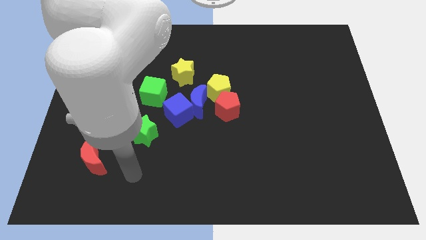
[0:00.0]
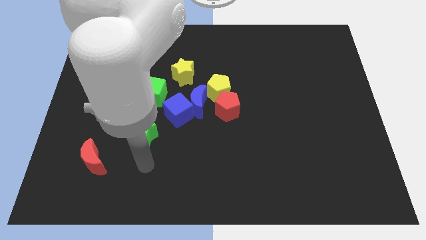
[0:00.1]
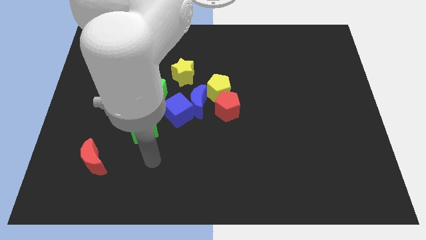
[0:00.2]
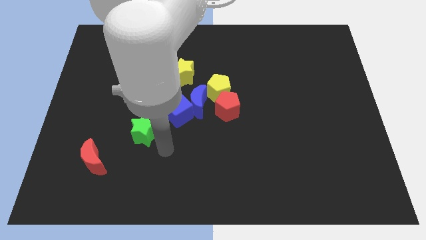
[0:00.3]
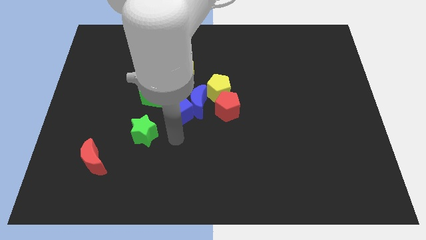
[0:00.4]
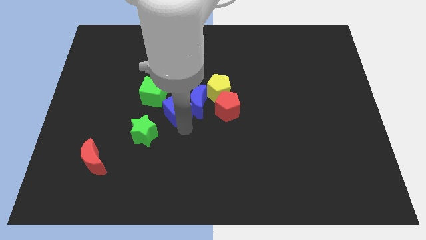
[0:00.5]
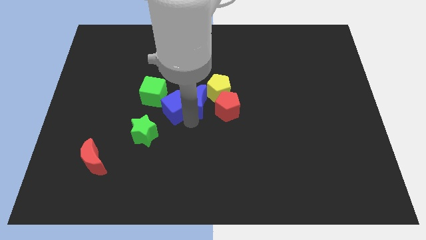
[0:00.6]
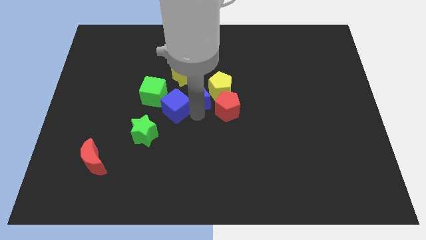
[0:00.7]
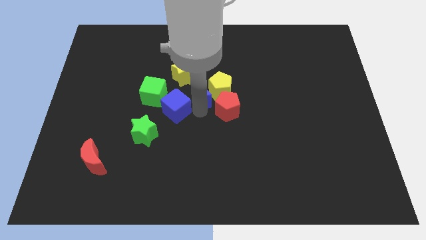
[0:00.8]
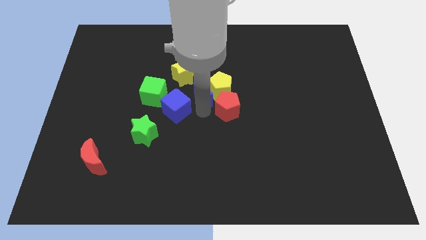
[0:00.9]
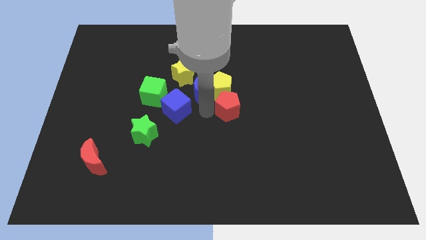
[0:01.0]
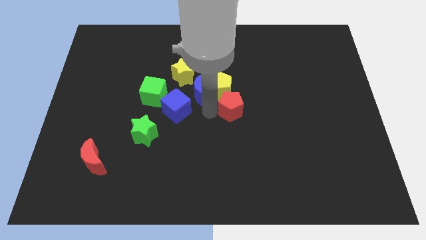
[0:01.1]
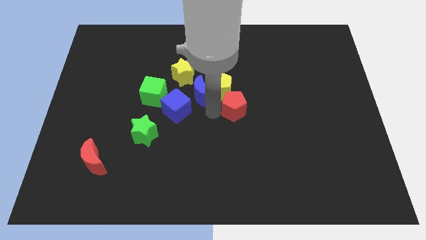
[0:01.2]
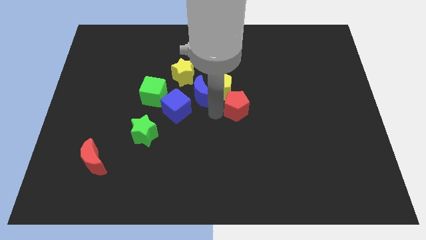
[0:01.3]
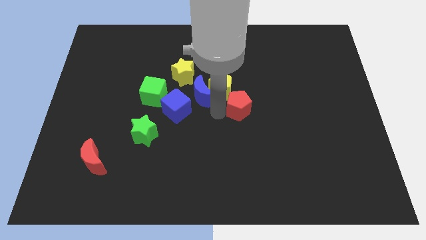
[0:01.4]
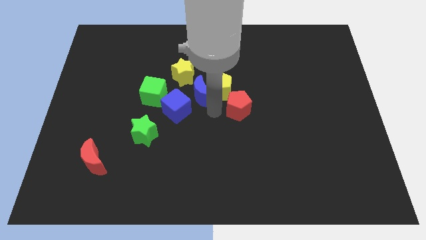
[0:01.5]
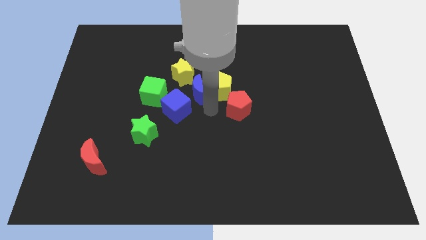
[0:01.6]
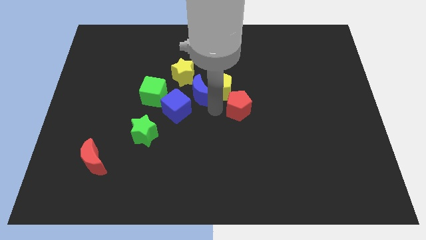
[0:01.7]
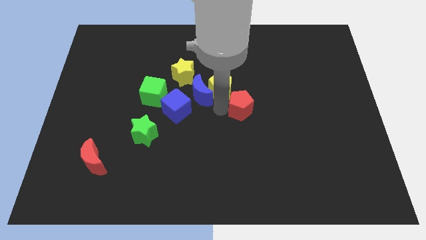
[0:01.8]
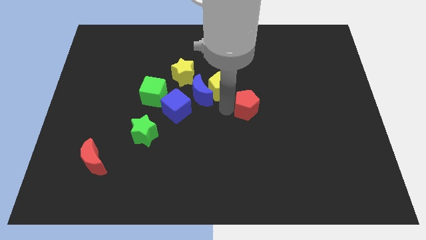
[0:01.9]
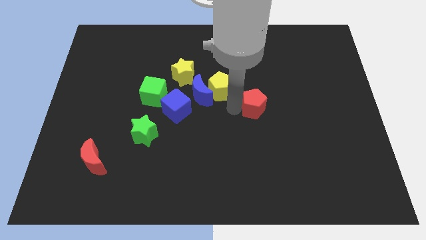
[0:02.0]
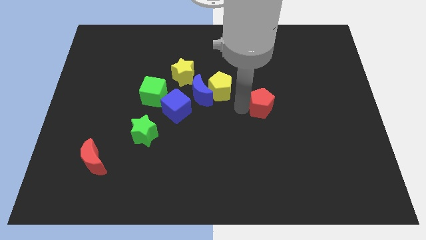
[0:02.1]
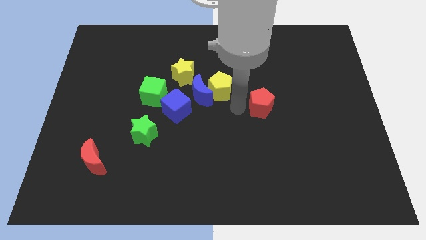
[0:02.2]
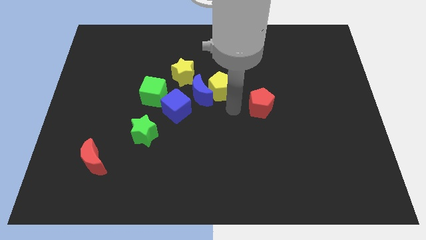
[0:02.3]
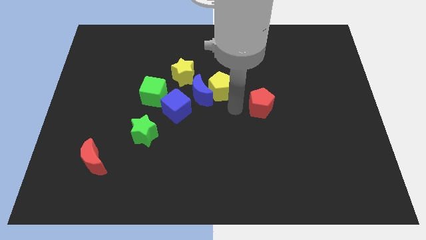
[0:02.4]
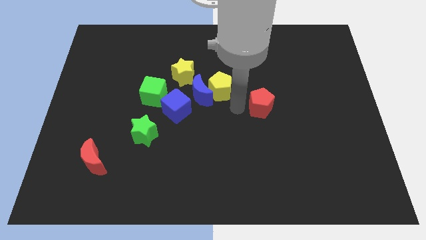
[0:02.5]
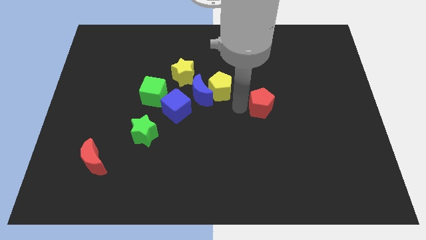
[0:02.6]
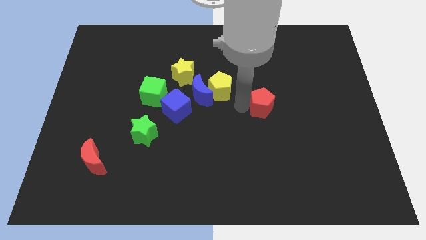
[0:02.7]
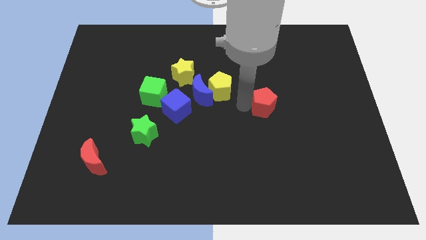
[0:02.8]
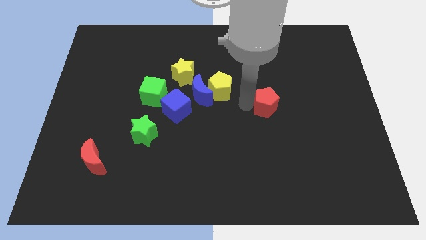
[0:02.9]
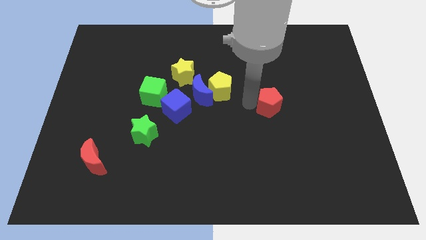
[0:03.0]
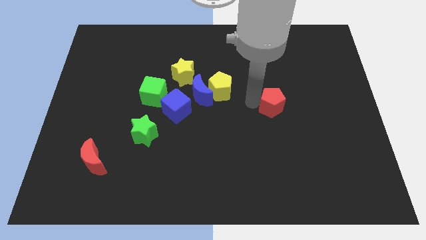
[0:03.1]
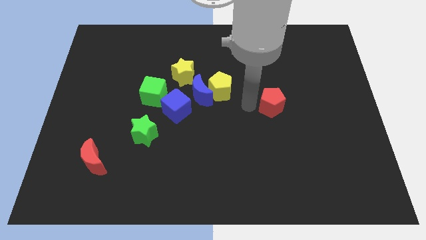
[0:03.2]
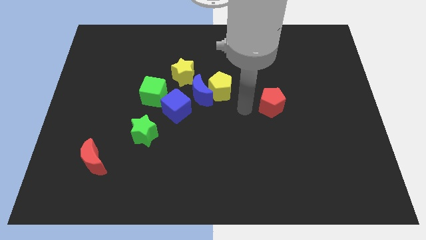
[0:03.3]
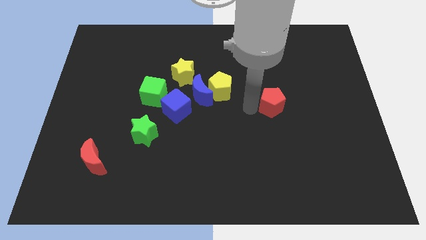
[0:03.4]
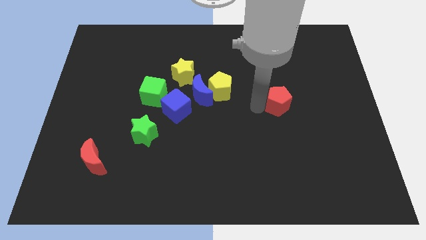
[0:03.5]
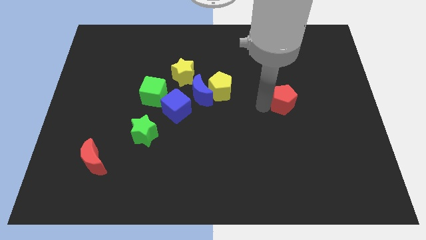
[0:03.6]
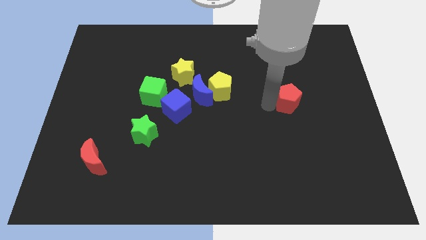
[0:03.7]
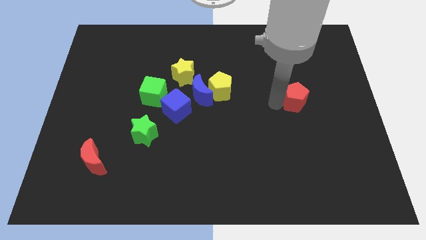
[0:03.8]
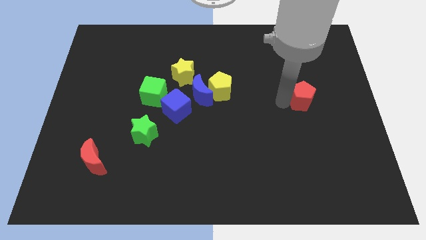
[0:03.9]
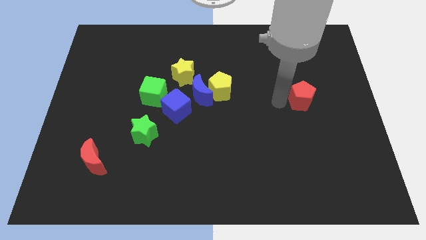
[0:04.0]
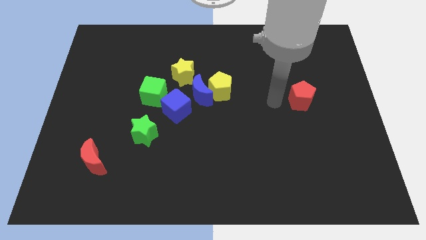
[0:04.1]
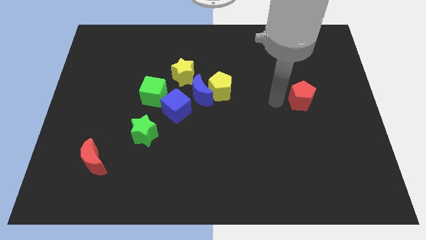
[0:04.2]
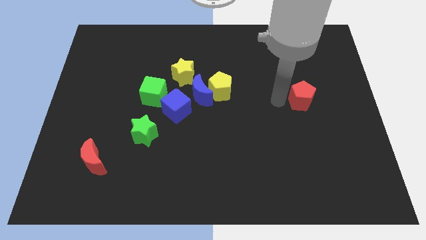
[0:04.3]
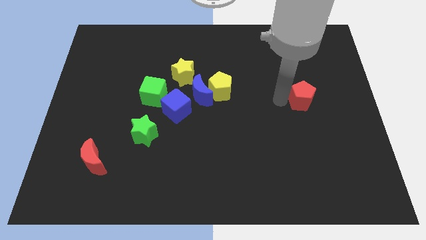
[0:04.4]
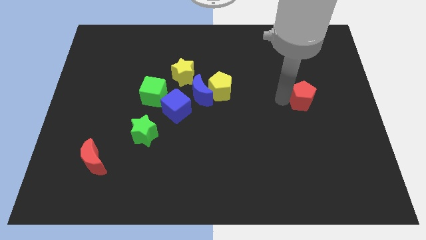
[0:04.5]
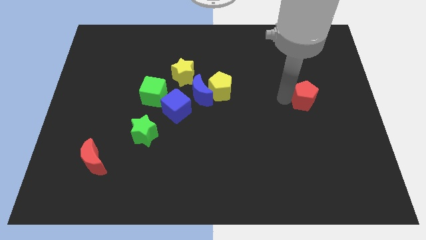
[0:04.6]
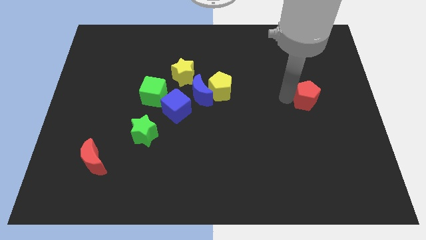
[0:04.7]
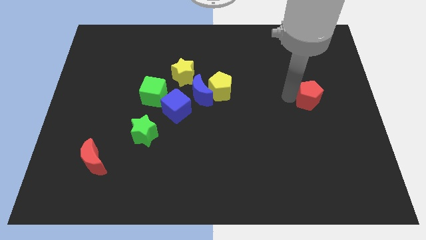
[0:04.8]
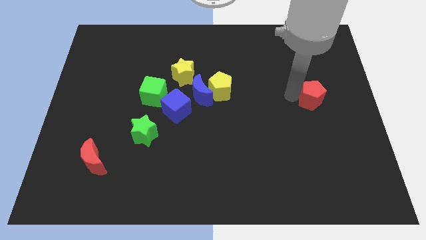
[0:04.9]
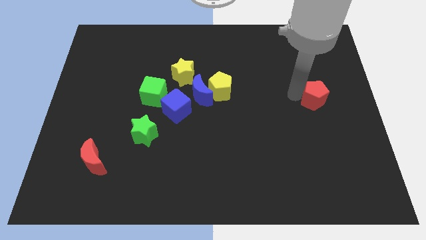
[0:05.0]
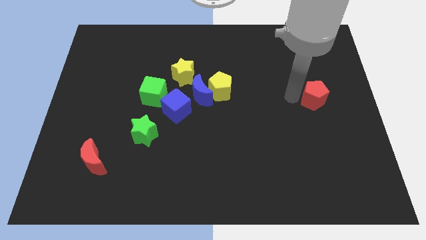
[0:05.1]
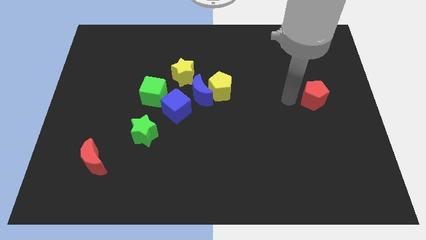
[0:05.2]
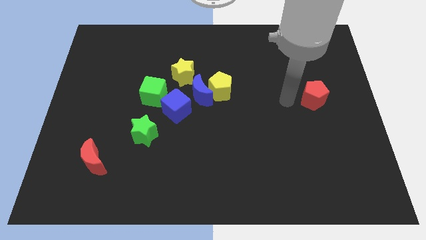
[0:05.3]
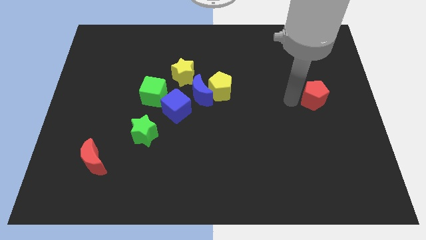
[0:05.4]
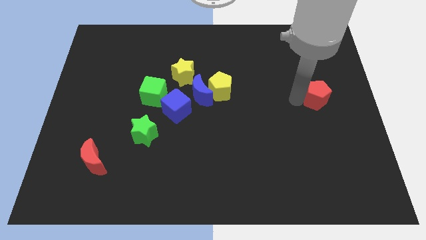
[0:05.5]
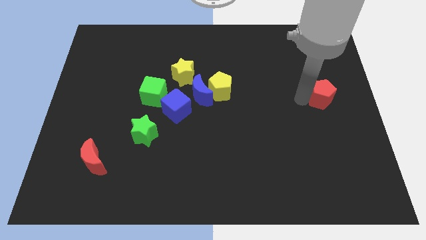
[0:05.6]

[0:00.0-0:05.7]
push the red pentagon to the right side

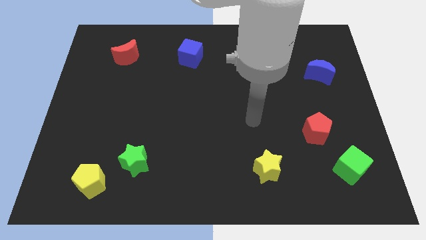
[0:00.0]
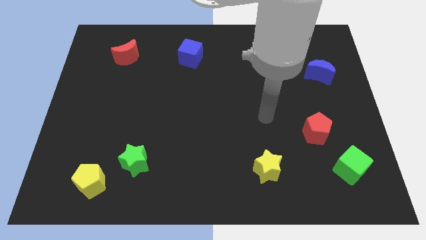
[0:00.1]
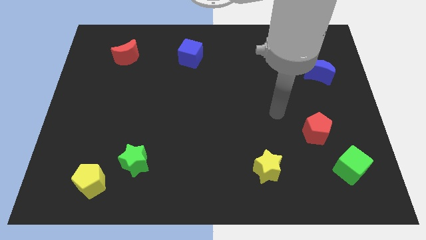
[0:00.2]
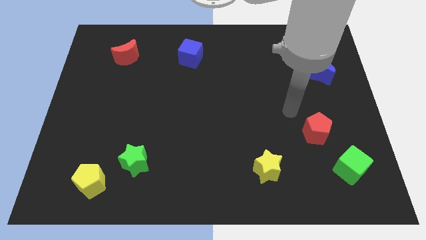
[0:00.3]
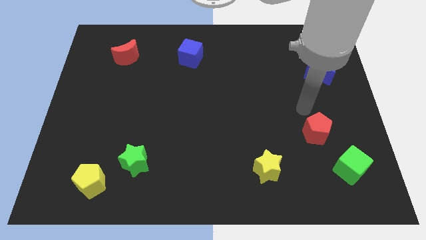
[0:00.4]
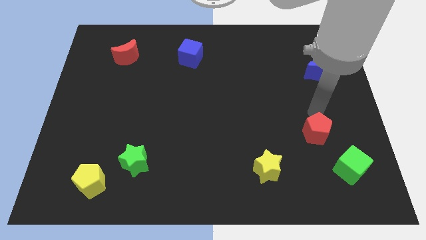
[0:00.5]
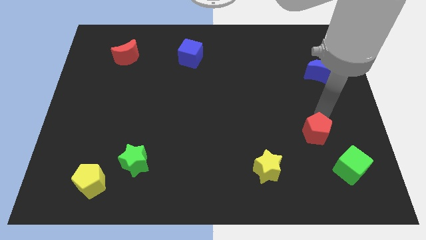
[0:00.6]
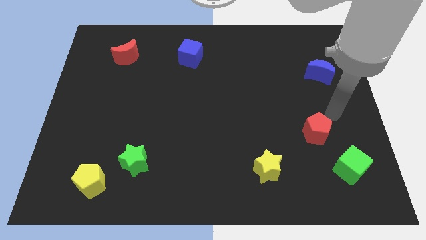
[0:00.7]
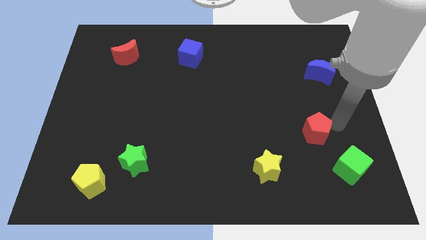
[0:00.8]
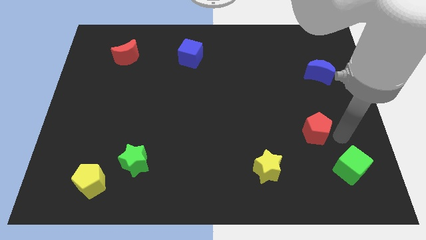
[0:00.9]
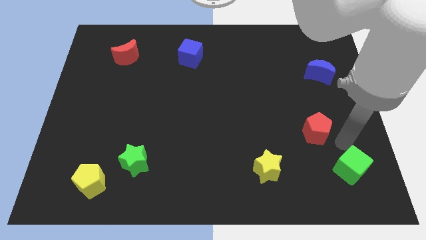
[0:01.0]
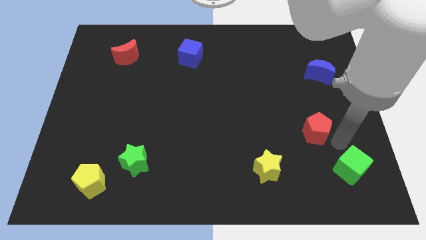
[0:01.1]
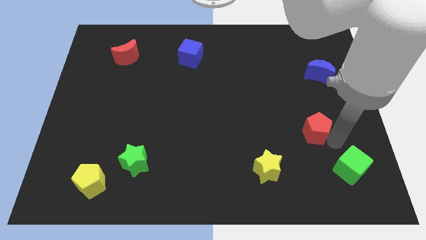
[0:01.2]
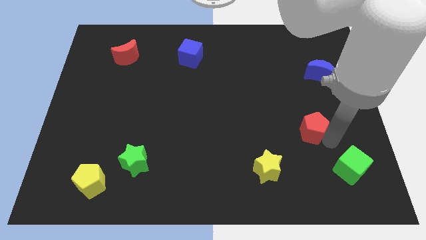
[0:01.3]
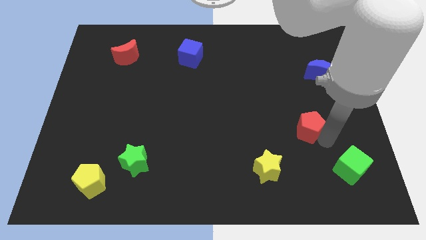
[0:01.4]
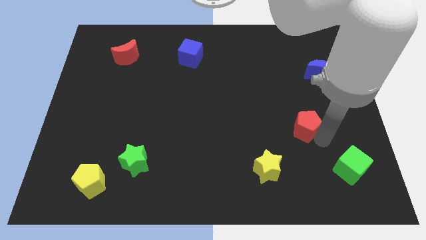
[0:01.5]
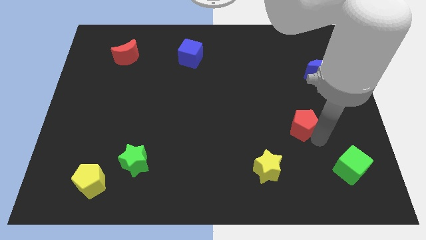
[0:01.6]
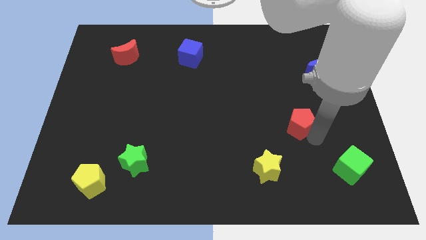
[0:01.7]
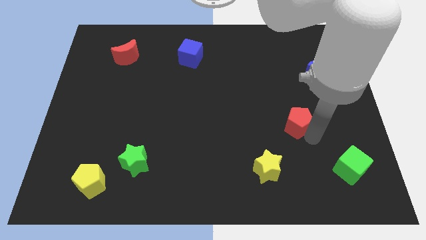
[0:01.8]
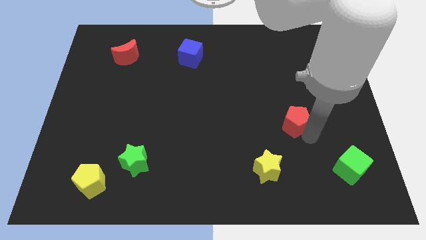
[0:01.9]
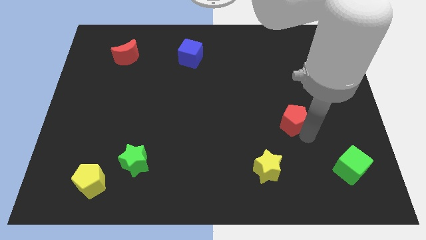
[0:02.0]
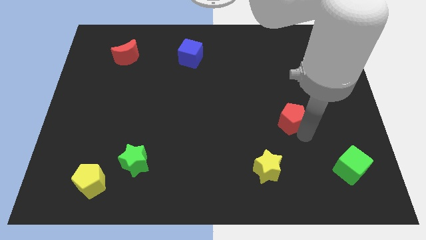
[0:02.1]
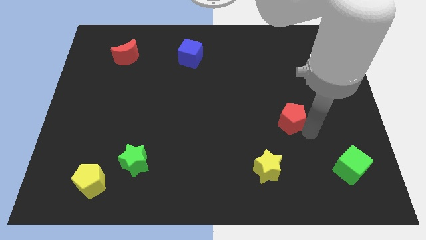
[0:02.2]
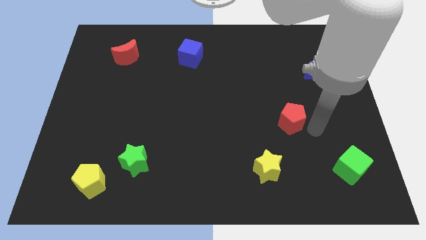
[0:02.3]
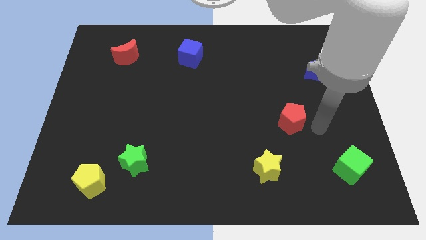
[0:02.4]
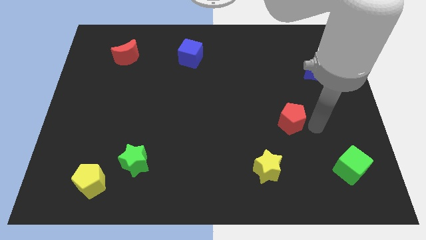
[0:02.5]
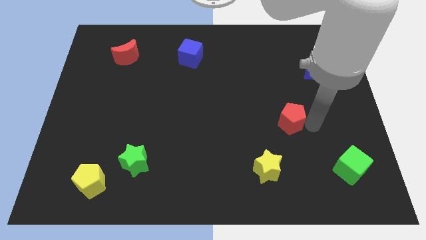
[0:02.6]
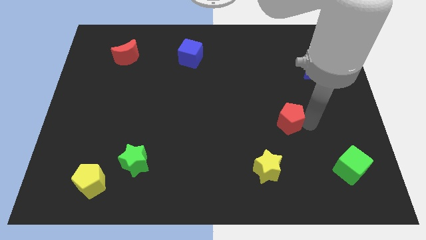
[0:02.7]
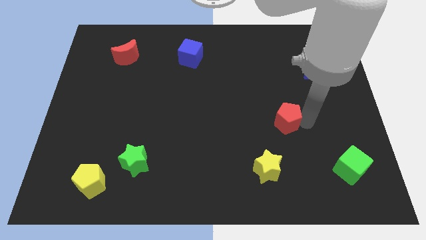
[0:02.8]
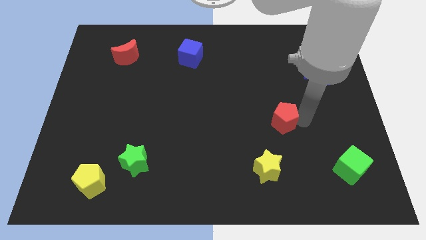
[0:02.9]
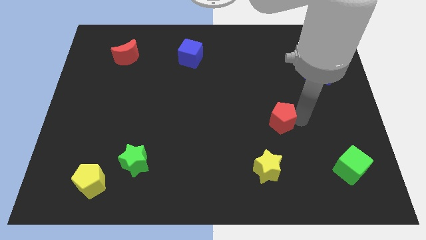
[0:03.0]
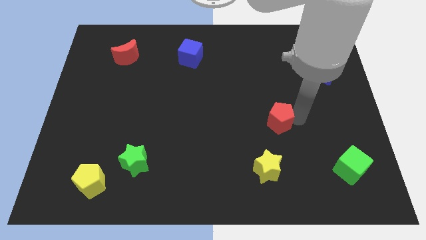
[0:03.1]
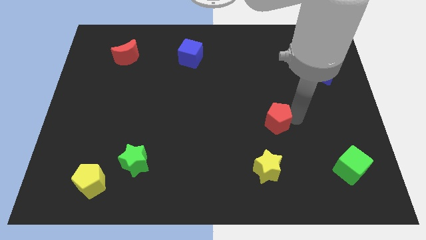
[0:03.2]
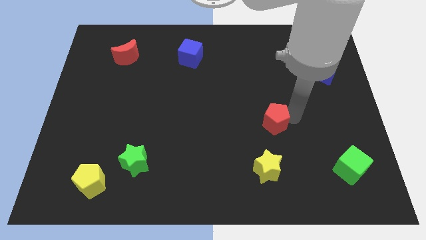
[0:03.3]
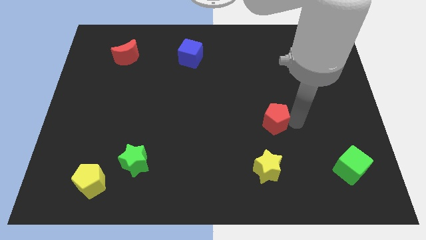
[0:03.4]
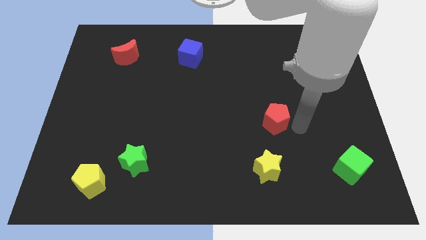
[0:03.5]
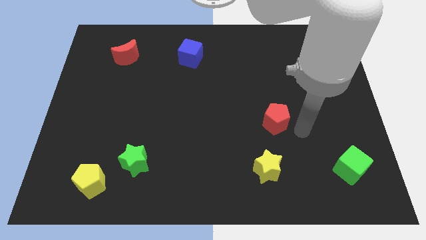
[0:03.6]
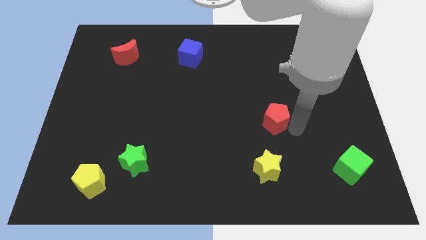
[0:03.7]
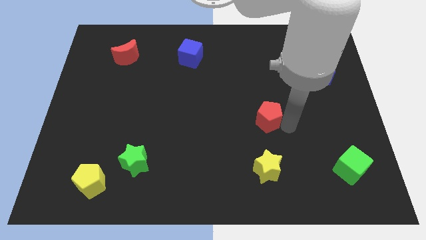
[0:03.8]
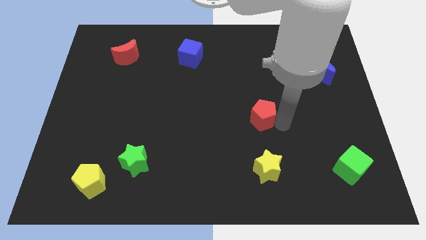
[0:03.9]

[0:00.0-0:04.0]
put the red pentagon to the middle of the board
